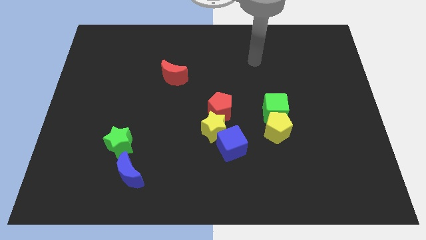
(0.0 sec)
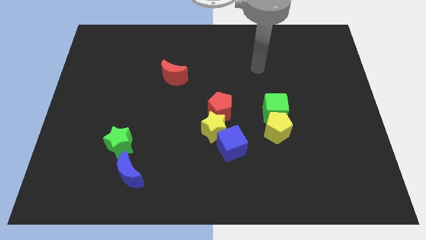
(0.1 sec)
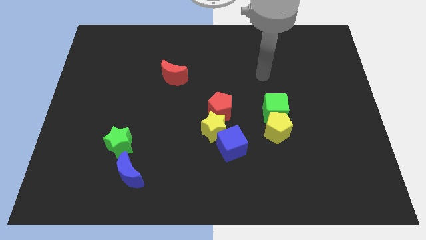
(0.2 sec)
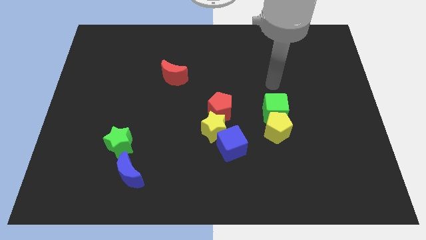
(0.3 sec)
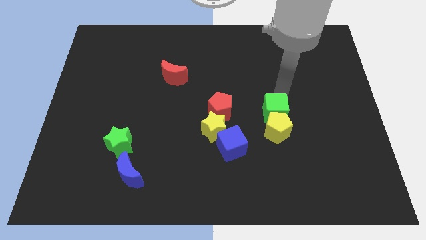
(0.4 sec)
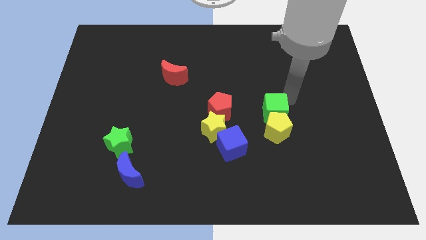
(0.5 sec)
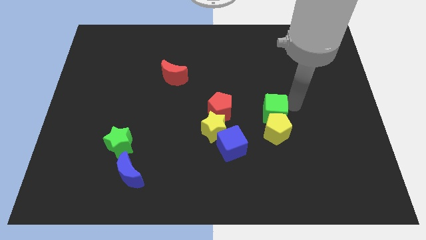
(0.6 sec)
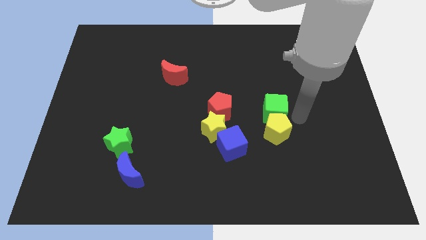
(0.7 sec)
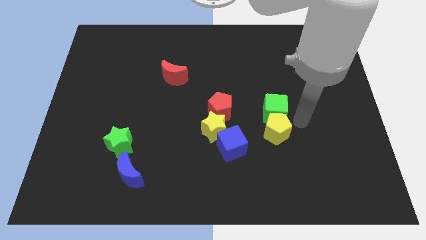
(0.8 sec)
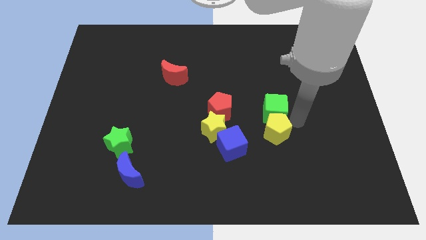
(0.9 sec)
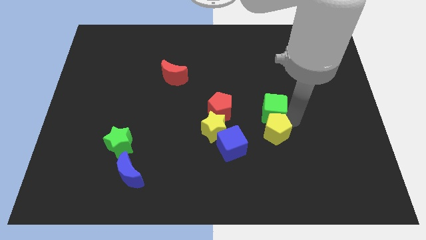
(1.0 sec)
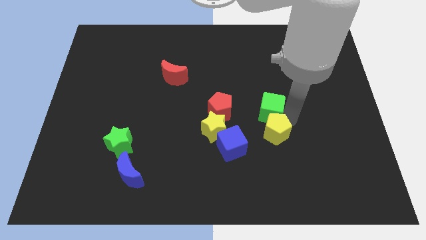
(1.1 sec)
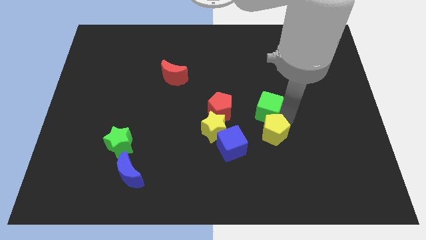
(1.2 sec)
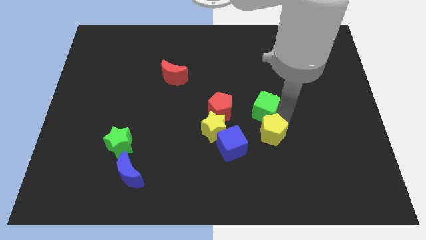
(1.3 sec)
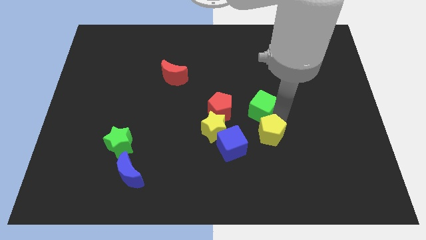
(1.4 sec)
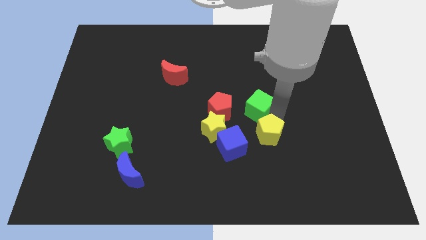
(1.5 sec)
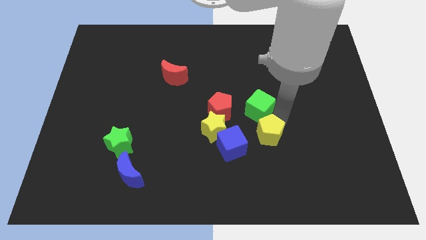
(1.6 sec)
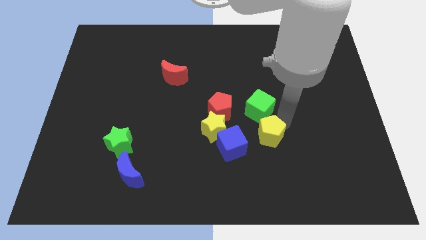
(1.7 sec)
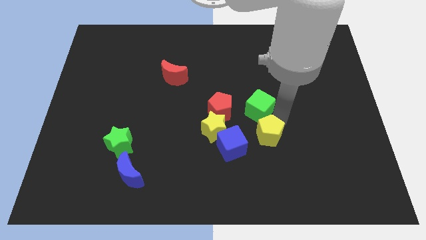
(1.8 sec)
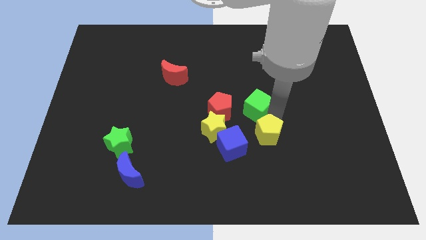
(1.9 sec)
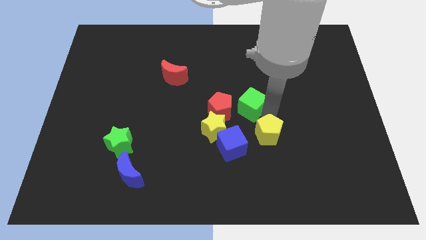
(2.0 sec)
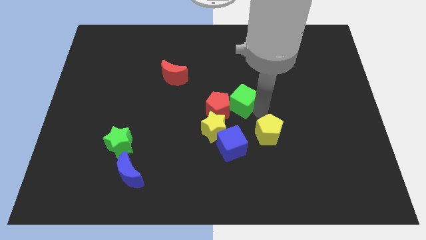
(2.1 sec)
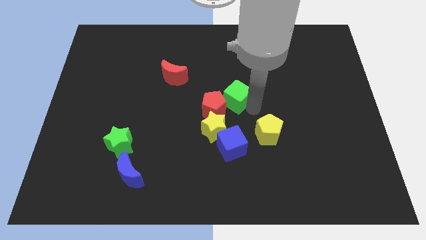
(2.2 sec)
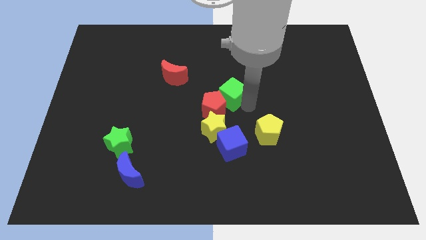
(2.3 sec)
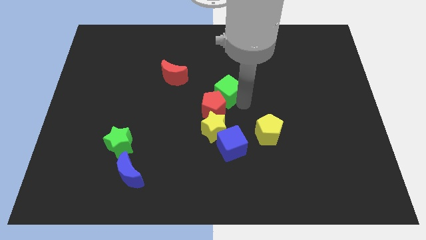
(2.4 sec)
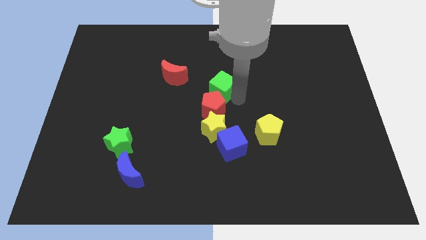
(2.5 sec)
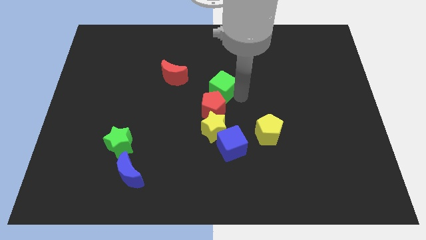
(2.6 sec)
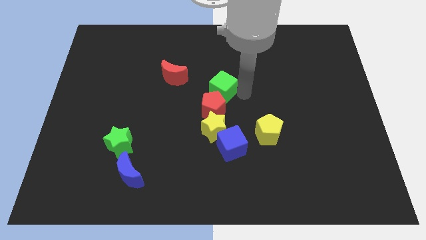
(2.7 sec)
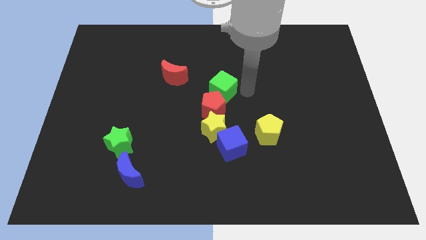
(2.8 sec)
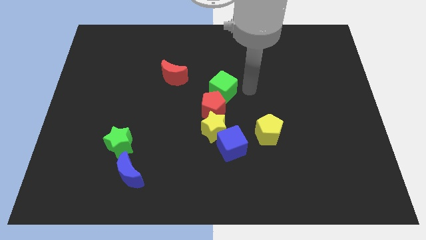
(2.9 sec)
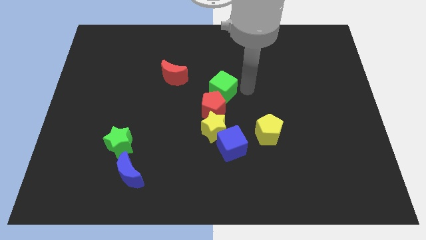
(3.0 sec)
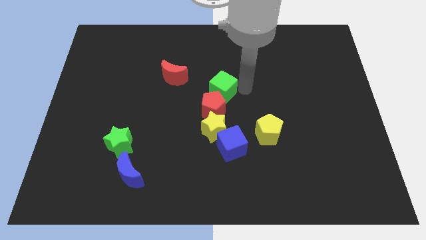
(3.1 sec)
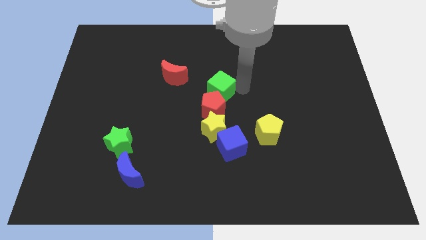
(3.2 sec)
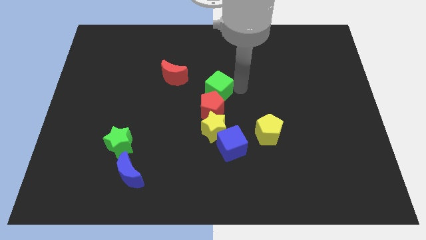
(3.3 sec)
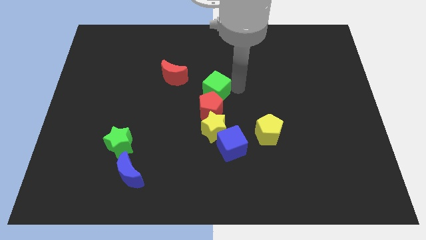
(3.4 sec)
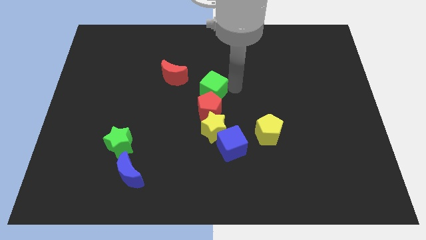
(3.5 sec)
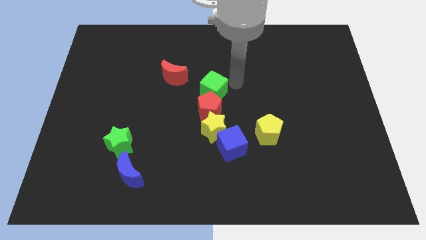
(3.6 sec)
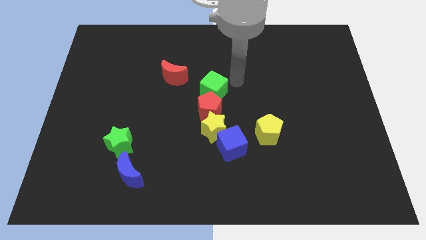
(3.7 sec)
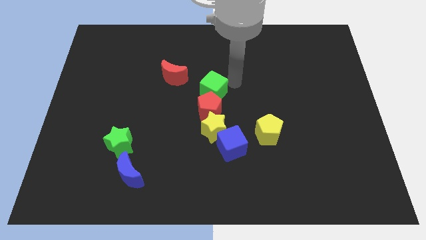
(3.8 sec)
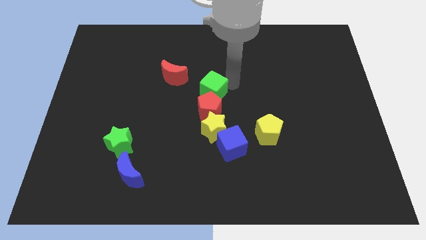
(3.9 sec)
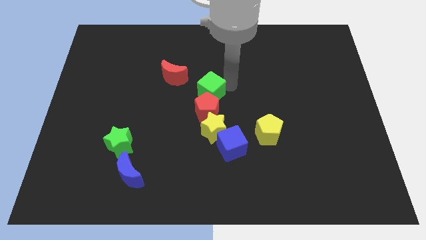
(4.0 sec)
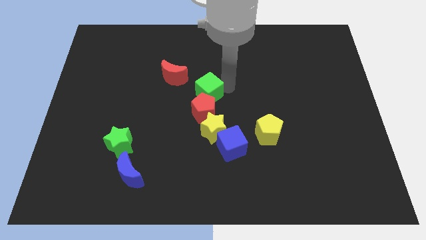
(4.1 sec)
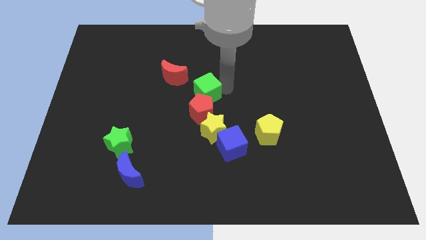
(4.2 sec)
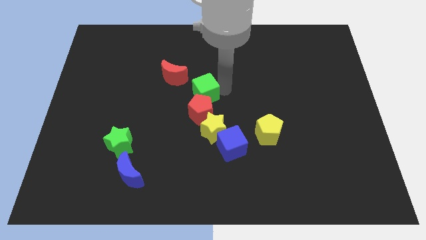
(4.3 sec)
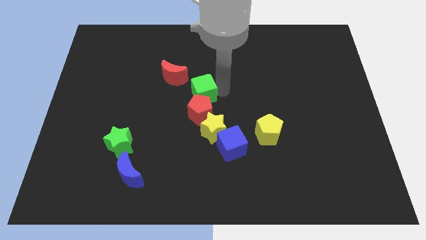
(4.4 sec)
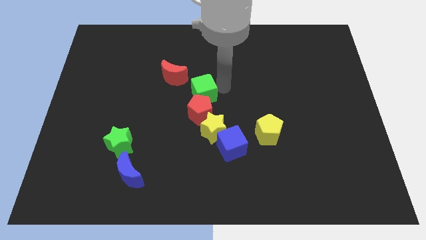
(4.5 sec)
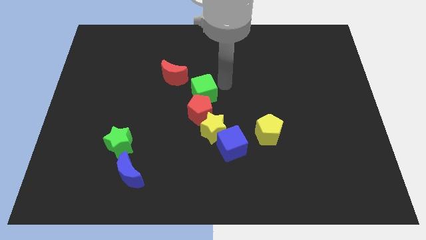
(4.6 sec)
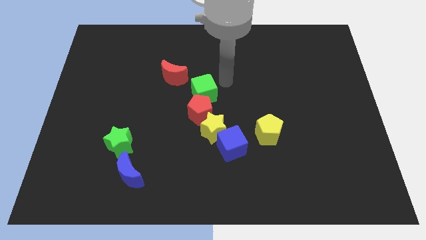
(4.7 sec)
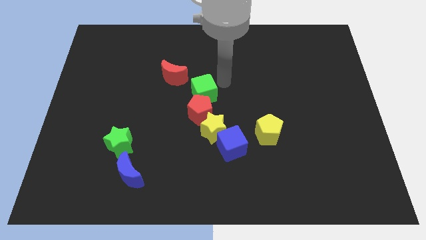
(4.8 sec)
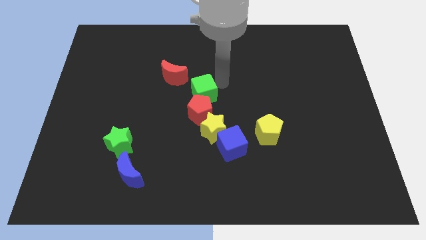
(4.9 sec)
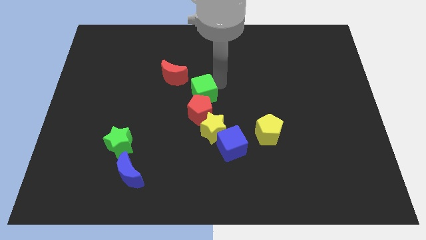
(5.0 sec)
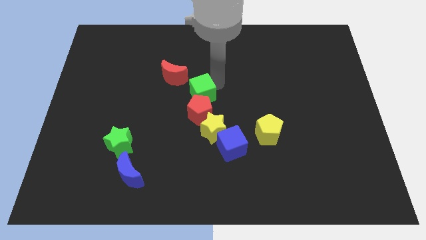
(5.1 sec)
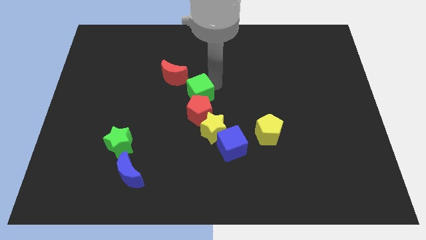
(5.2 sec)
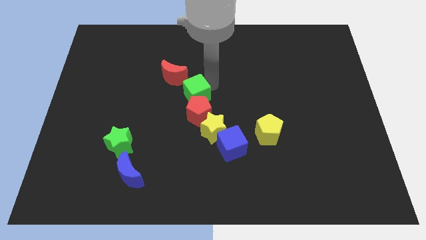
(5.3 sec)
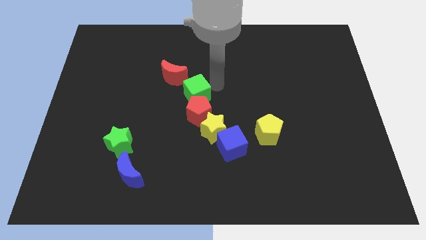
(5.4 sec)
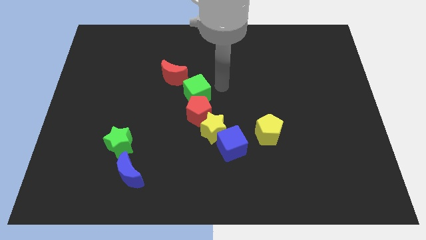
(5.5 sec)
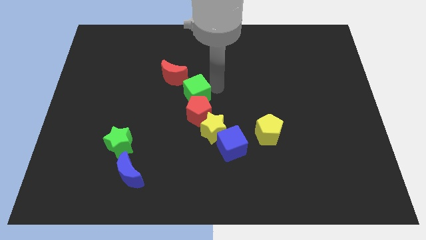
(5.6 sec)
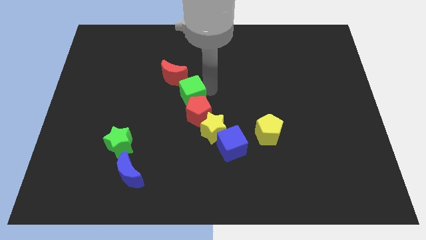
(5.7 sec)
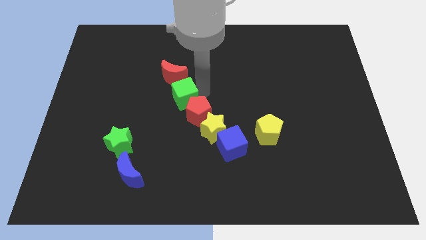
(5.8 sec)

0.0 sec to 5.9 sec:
slide the green cube to the left

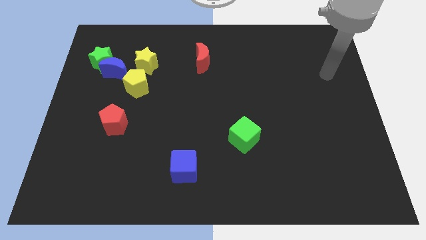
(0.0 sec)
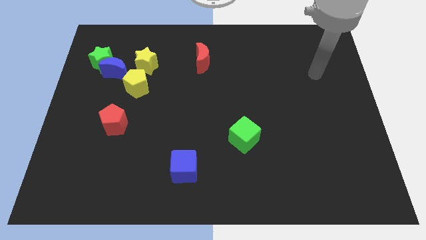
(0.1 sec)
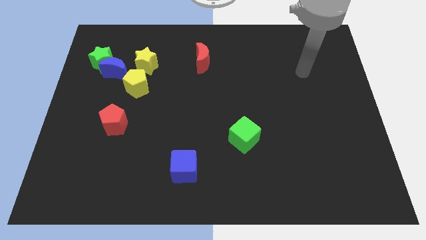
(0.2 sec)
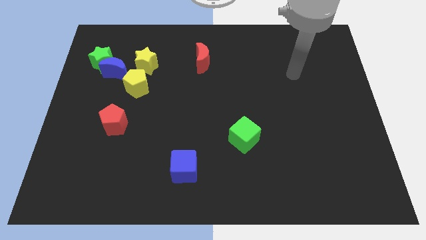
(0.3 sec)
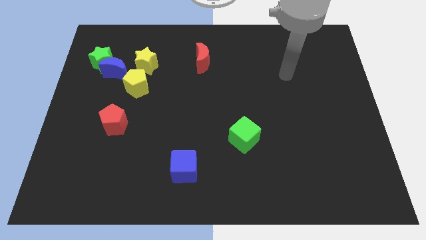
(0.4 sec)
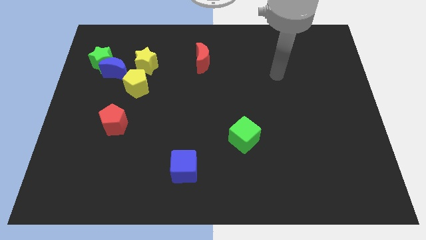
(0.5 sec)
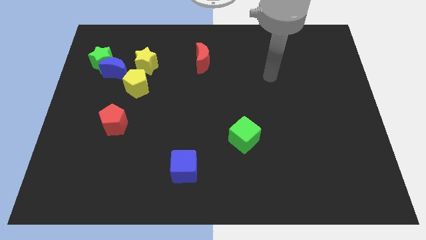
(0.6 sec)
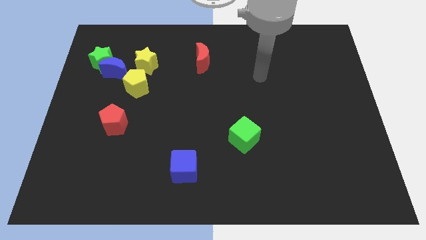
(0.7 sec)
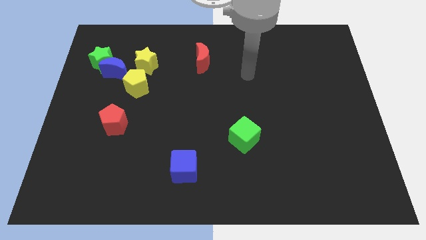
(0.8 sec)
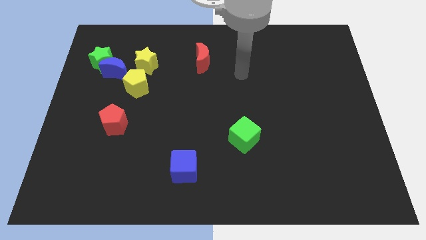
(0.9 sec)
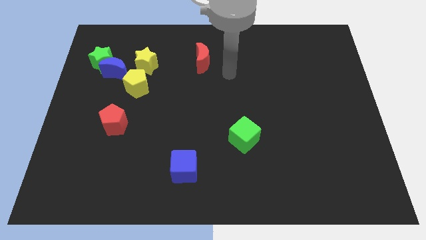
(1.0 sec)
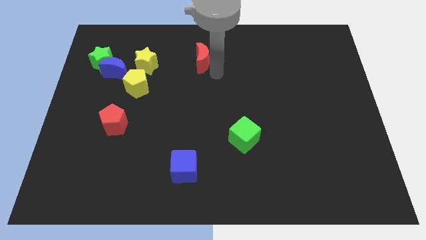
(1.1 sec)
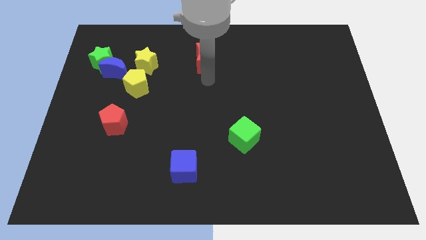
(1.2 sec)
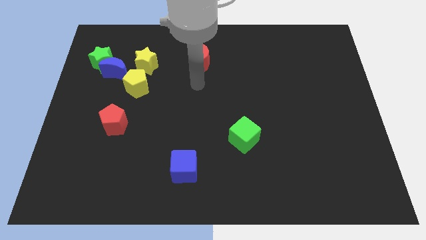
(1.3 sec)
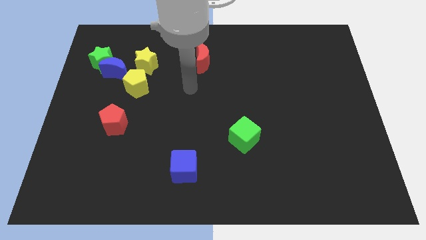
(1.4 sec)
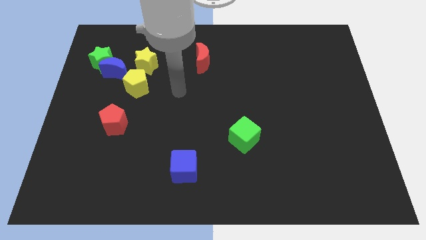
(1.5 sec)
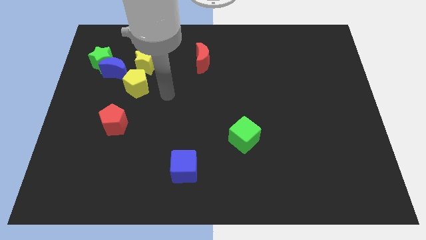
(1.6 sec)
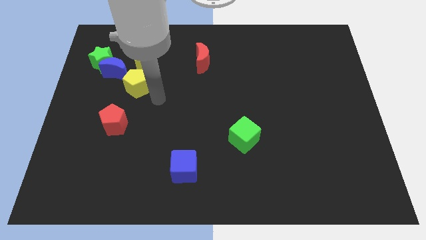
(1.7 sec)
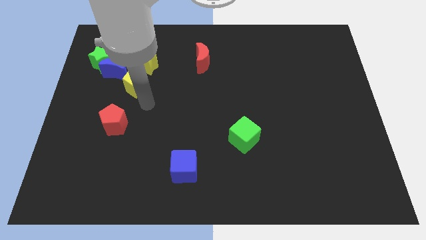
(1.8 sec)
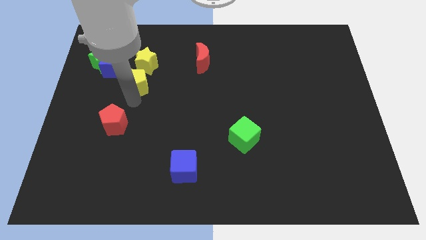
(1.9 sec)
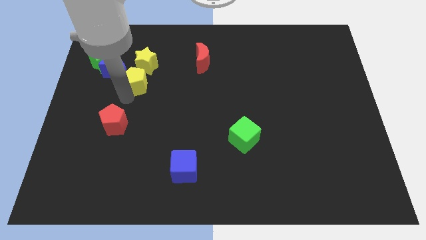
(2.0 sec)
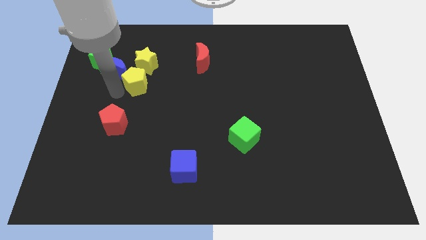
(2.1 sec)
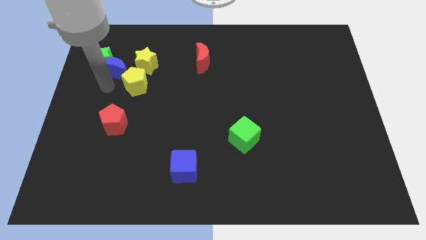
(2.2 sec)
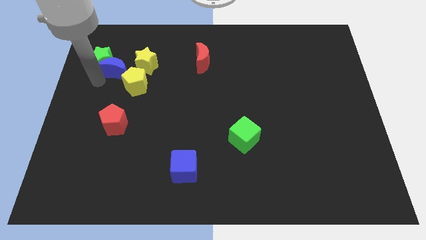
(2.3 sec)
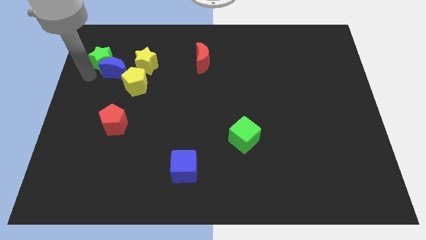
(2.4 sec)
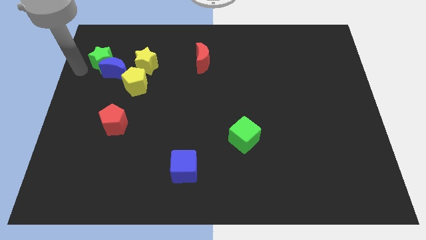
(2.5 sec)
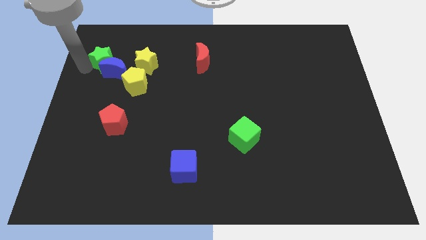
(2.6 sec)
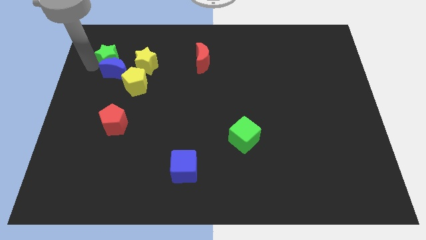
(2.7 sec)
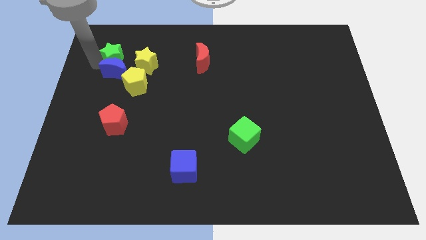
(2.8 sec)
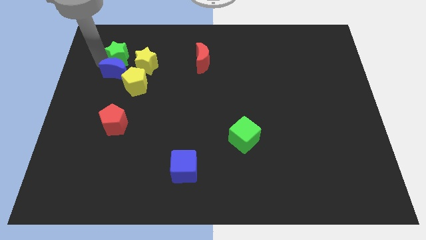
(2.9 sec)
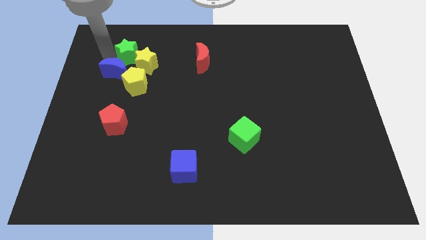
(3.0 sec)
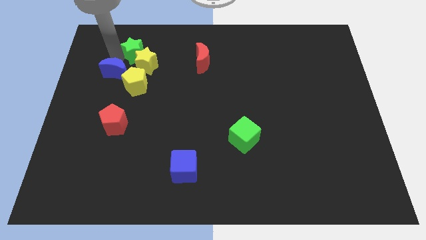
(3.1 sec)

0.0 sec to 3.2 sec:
move the green star a bit to the right
